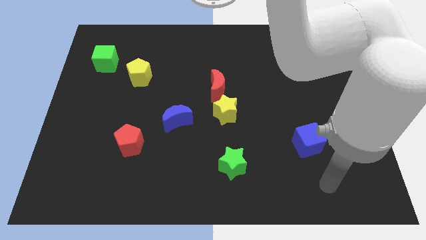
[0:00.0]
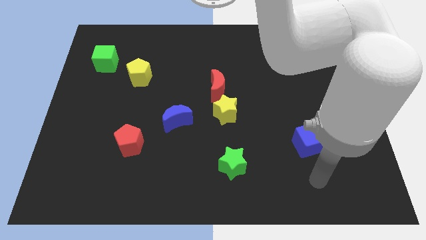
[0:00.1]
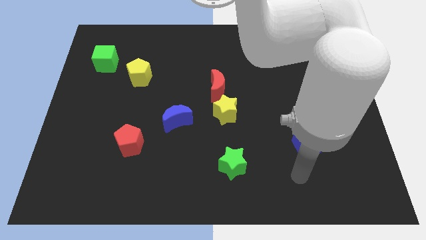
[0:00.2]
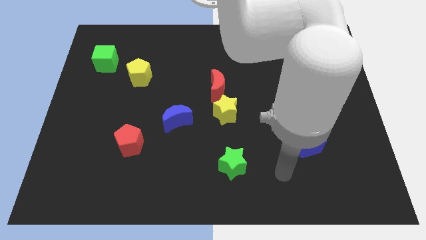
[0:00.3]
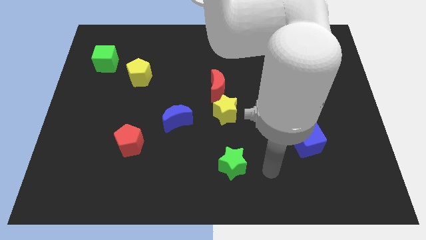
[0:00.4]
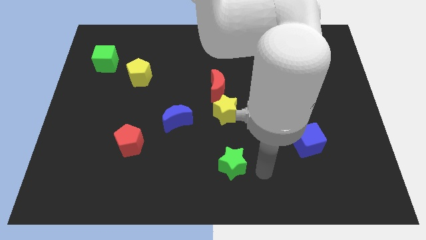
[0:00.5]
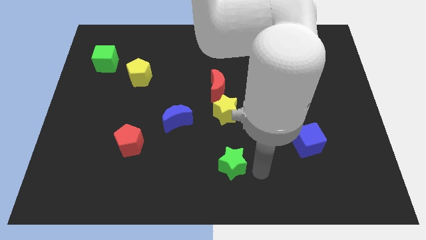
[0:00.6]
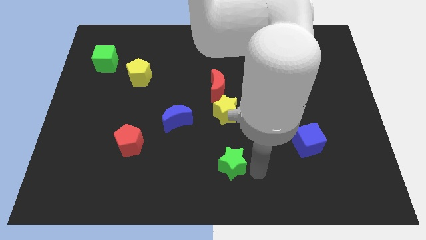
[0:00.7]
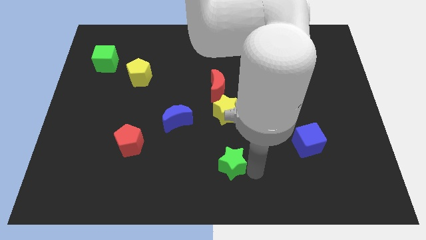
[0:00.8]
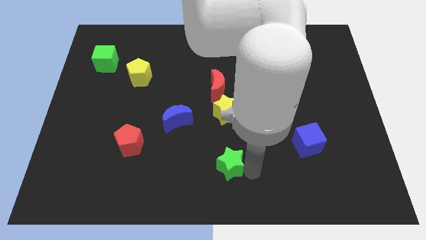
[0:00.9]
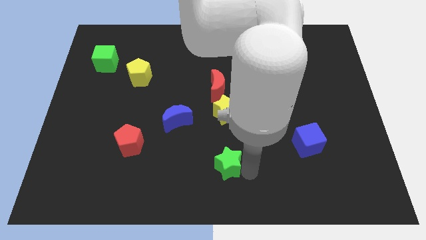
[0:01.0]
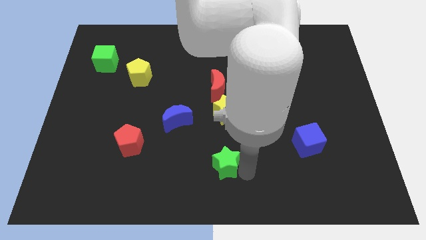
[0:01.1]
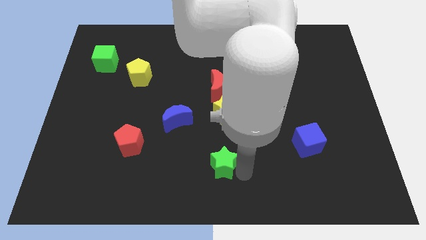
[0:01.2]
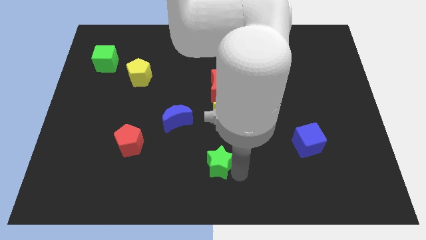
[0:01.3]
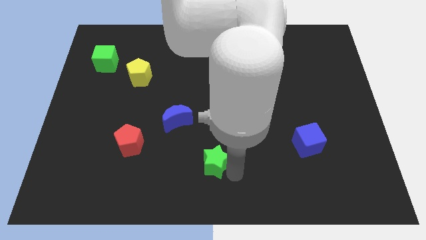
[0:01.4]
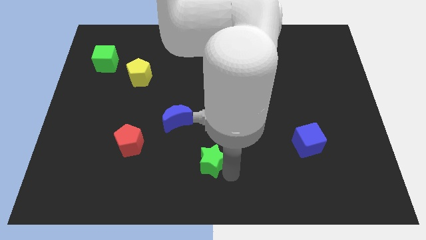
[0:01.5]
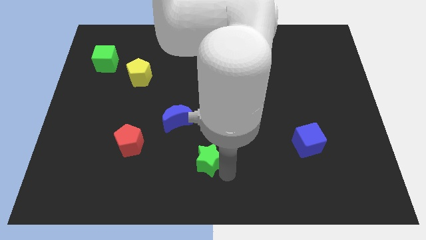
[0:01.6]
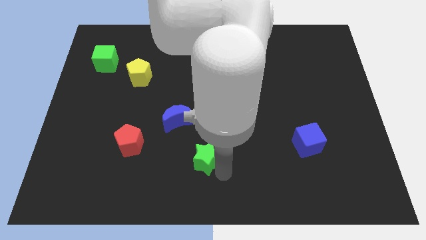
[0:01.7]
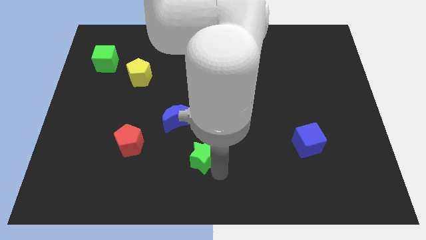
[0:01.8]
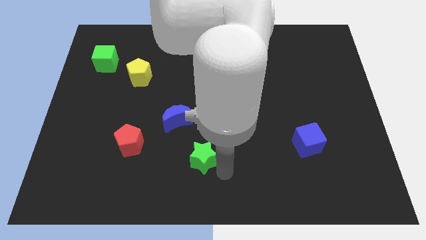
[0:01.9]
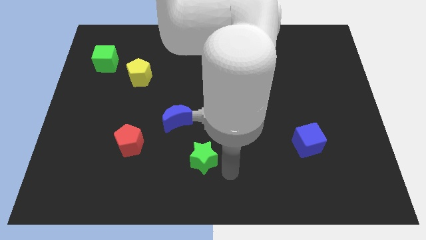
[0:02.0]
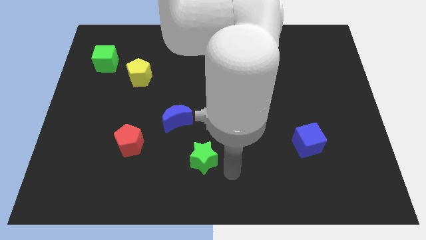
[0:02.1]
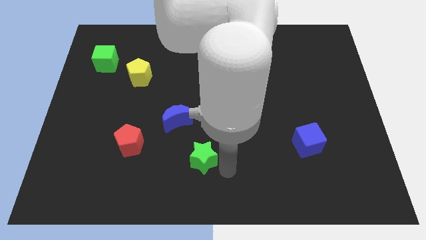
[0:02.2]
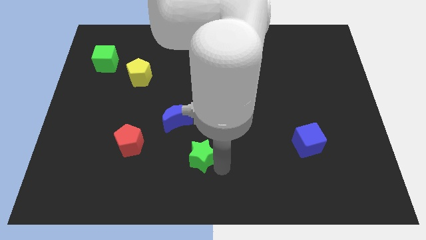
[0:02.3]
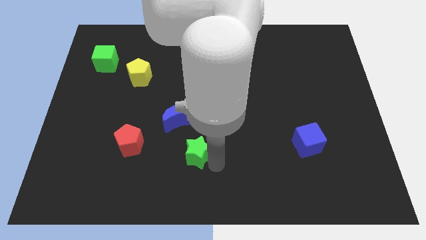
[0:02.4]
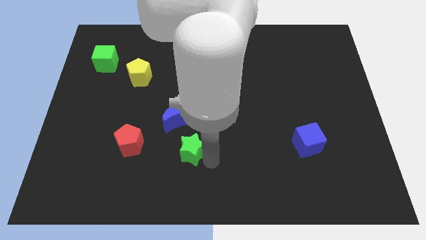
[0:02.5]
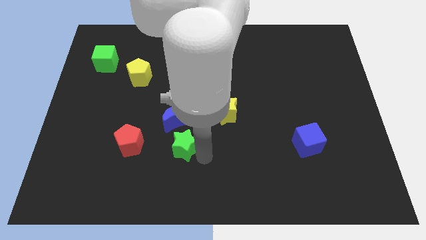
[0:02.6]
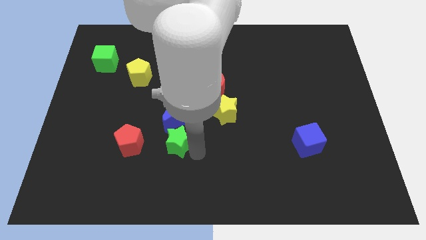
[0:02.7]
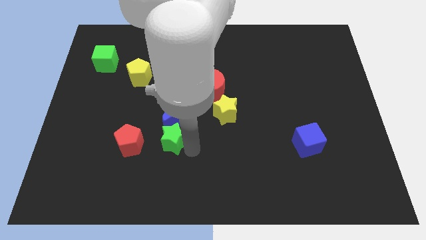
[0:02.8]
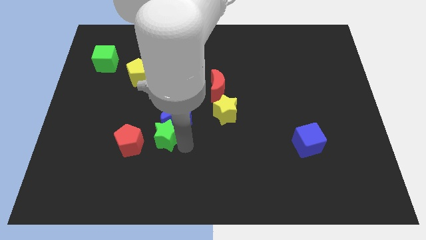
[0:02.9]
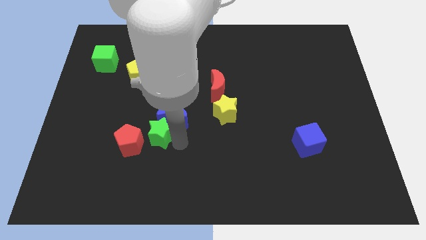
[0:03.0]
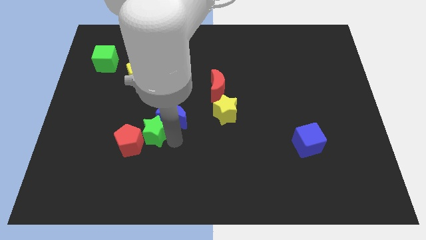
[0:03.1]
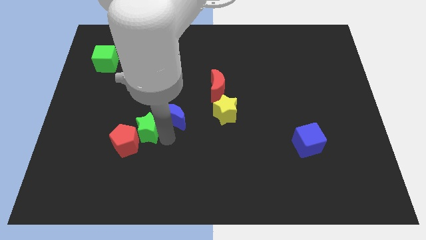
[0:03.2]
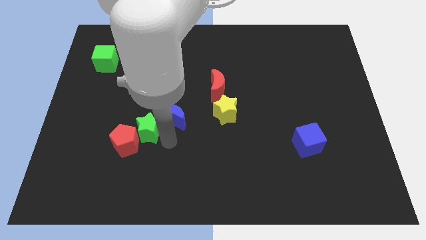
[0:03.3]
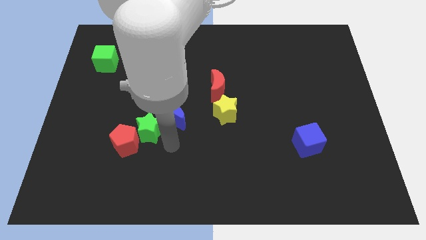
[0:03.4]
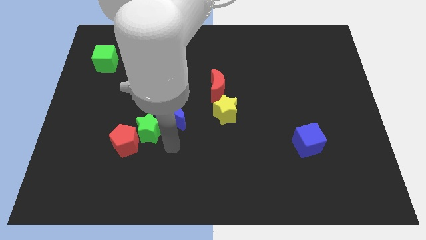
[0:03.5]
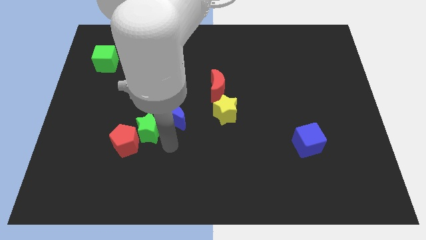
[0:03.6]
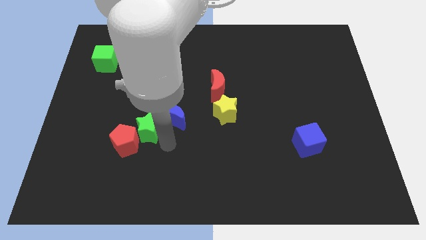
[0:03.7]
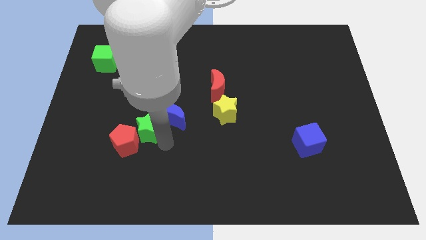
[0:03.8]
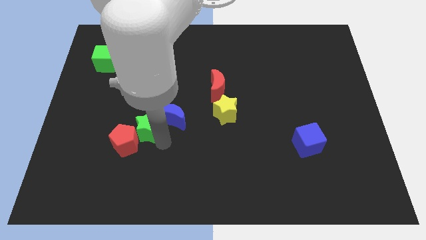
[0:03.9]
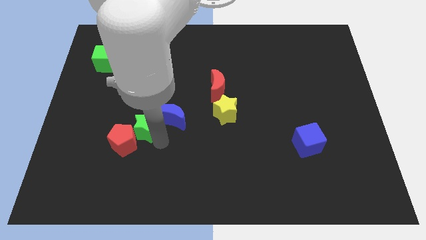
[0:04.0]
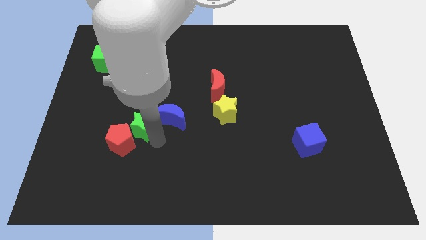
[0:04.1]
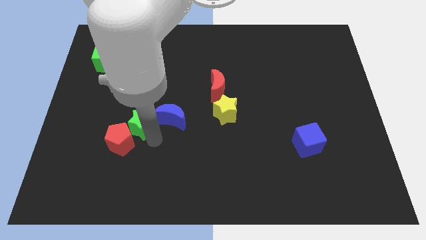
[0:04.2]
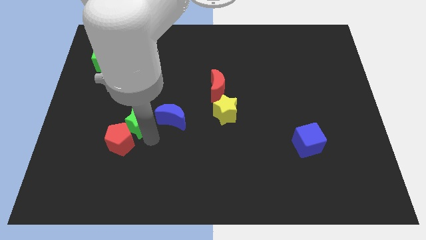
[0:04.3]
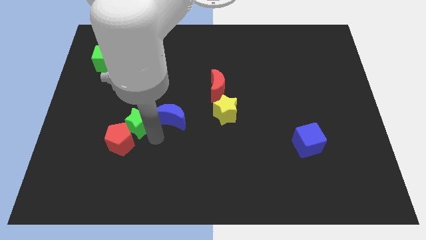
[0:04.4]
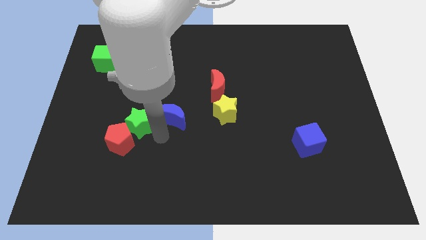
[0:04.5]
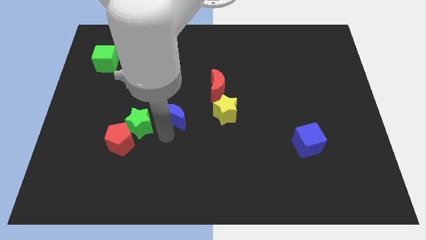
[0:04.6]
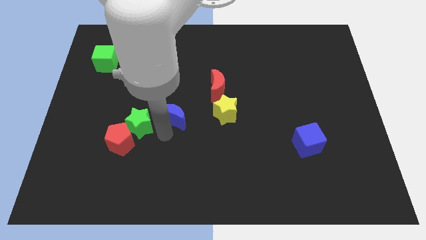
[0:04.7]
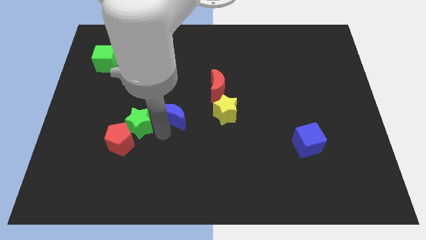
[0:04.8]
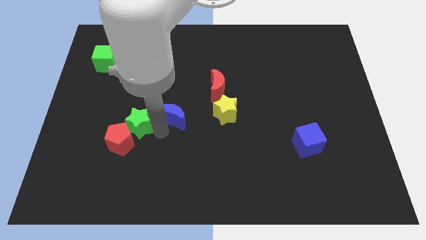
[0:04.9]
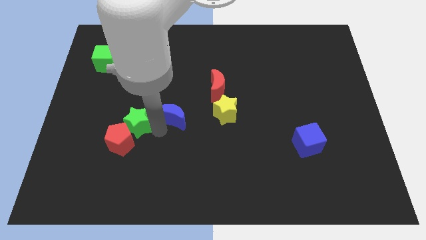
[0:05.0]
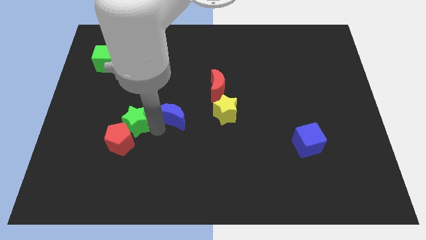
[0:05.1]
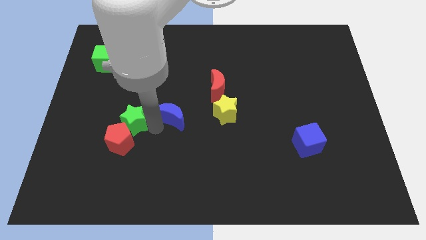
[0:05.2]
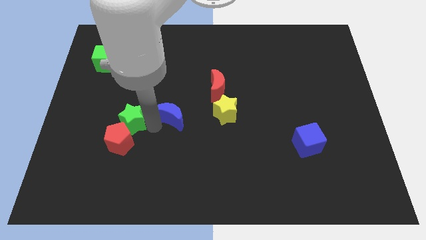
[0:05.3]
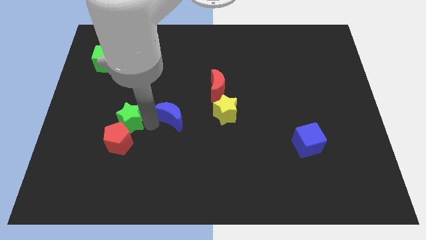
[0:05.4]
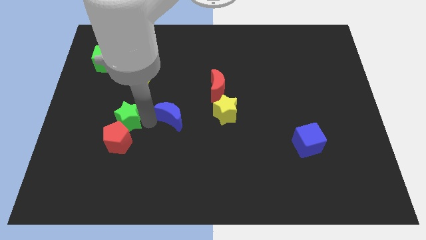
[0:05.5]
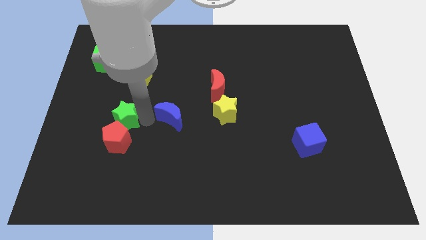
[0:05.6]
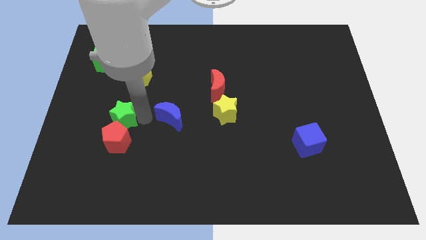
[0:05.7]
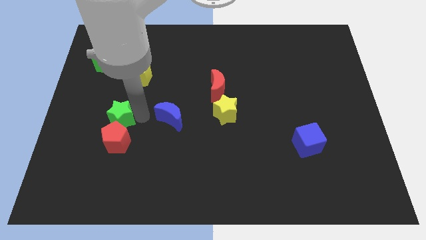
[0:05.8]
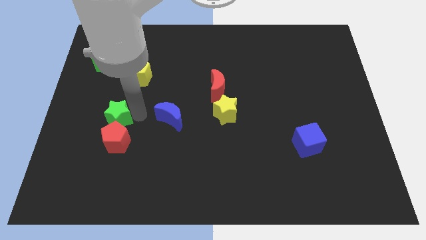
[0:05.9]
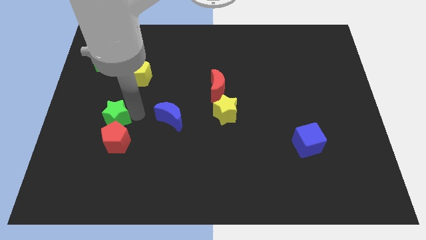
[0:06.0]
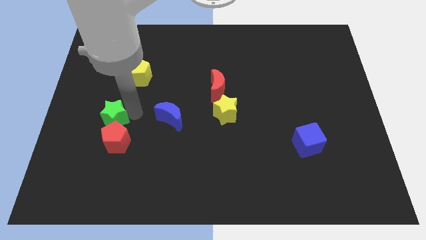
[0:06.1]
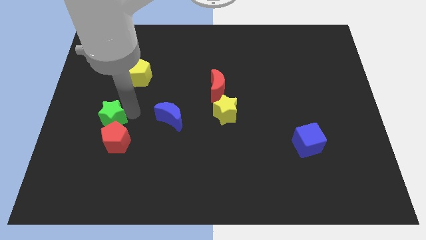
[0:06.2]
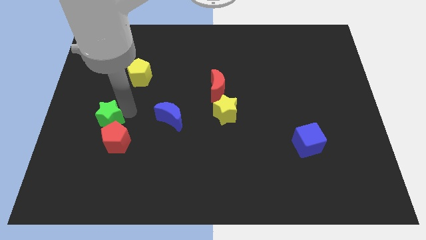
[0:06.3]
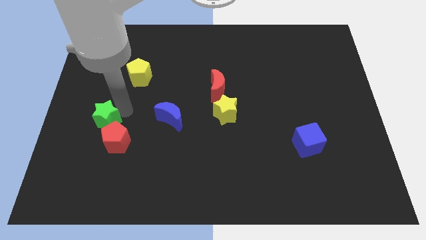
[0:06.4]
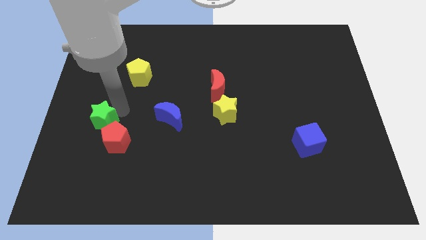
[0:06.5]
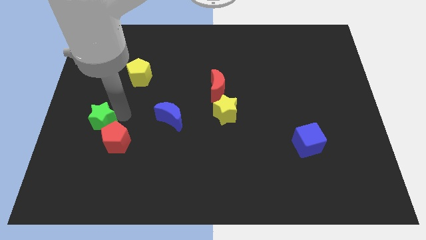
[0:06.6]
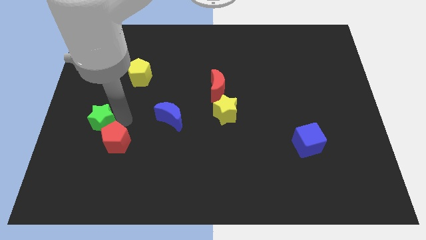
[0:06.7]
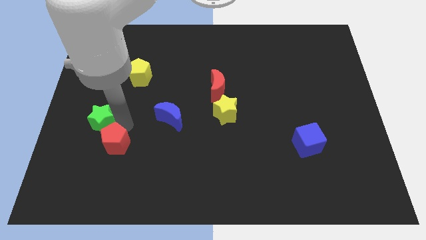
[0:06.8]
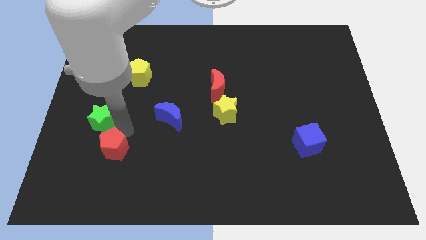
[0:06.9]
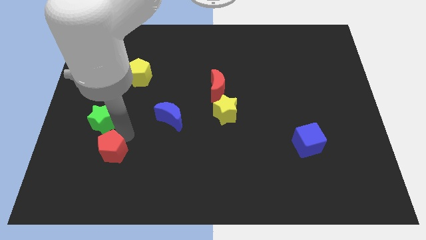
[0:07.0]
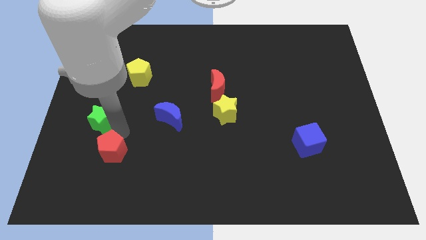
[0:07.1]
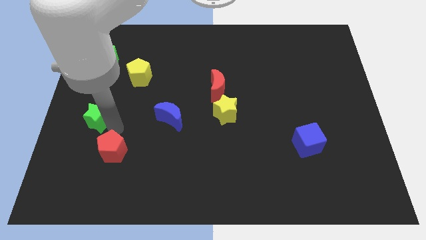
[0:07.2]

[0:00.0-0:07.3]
slide the green star to the left side
